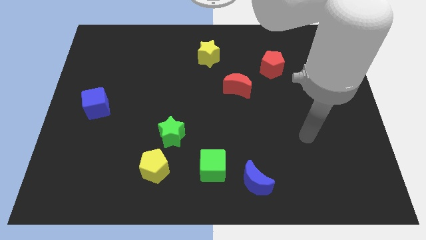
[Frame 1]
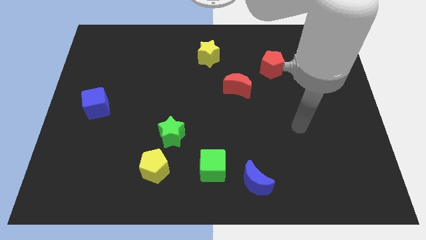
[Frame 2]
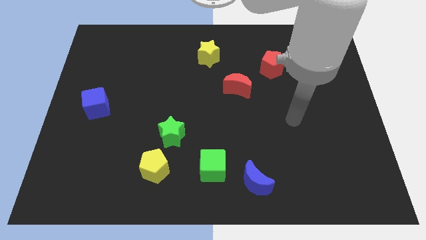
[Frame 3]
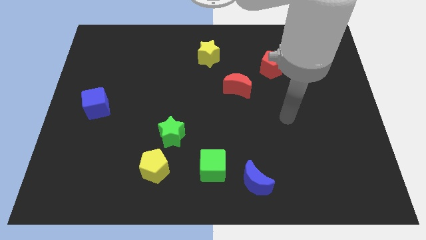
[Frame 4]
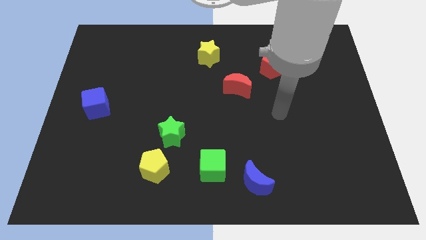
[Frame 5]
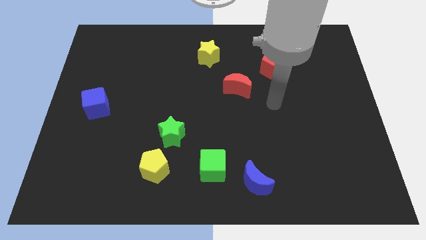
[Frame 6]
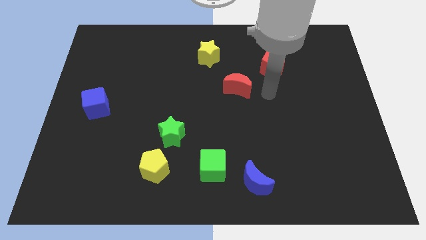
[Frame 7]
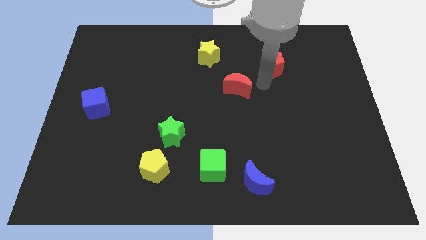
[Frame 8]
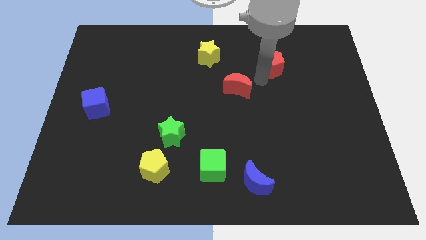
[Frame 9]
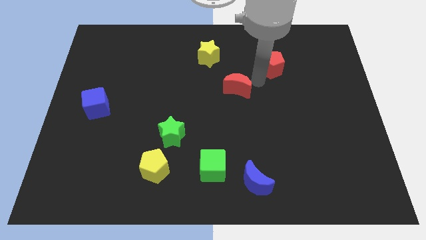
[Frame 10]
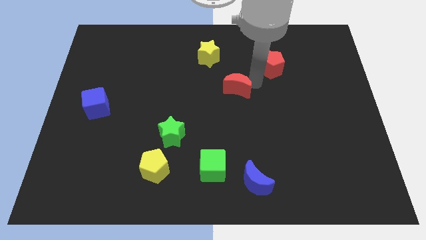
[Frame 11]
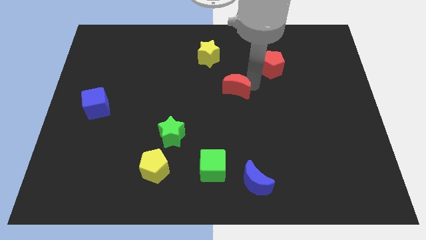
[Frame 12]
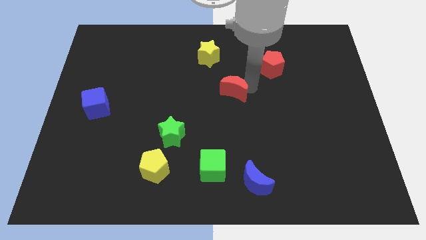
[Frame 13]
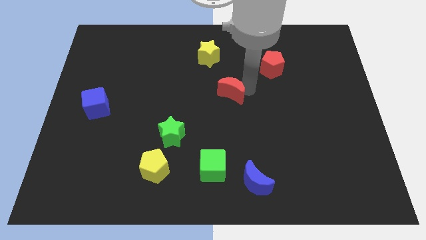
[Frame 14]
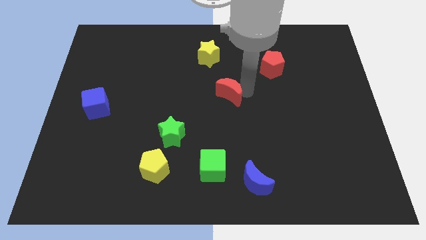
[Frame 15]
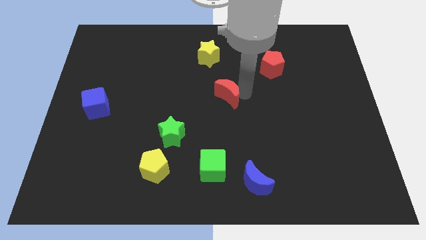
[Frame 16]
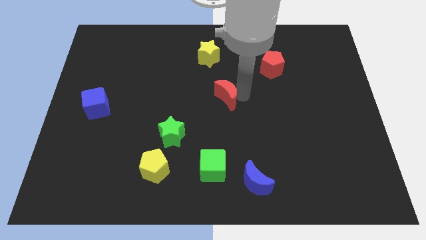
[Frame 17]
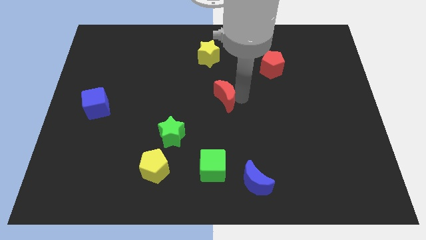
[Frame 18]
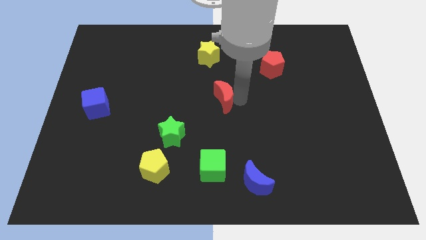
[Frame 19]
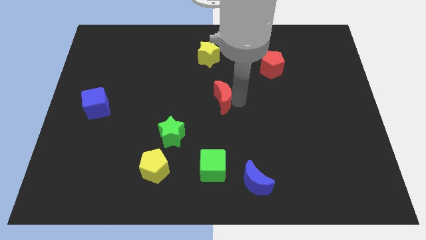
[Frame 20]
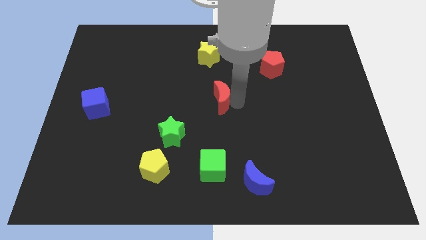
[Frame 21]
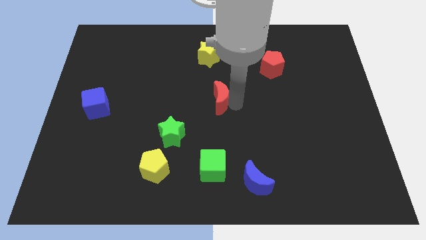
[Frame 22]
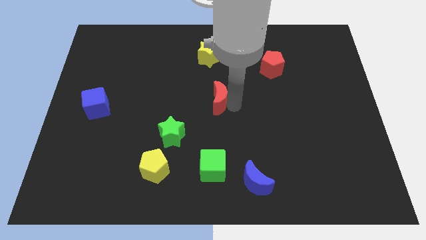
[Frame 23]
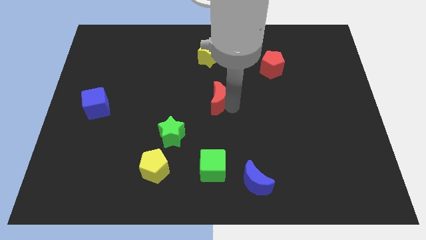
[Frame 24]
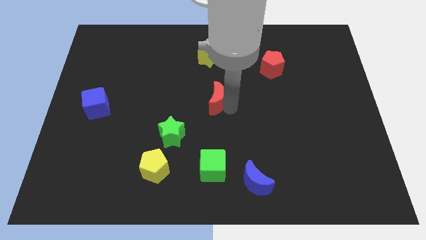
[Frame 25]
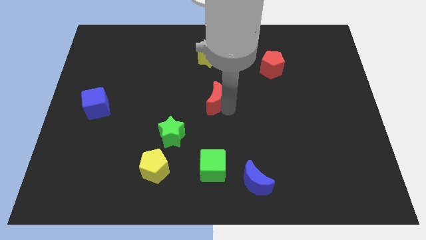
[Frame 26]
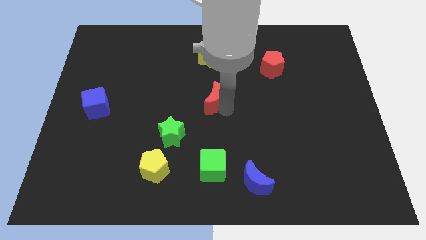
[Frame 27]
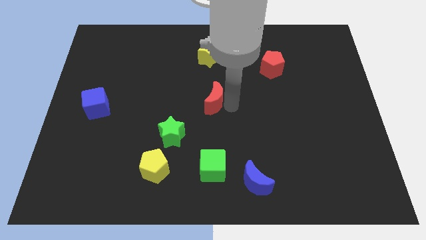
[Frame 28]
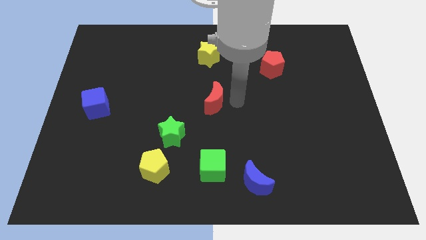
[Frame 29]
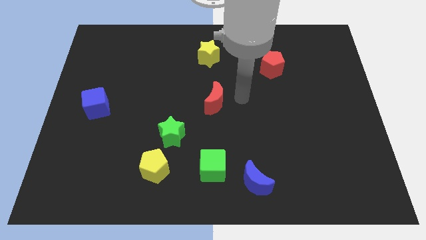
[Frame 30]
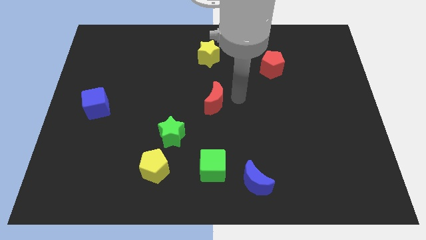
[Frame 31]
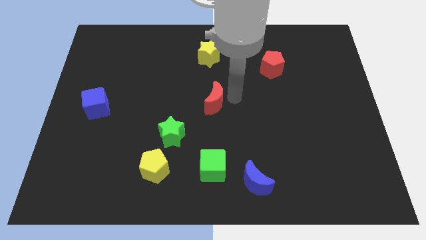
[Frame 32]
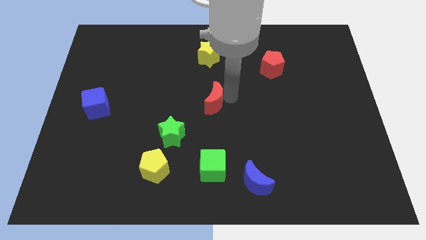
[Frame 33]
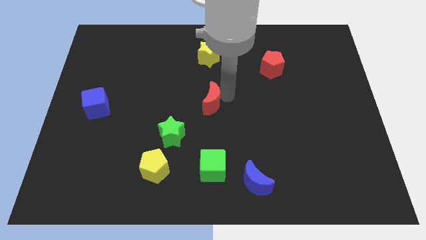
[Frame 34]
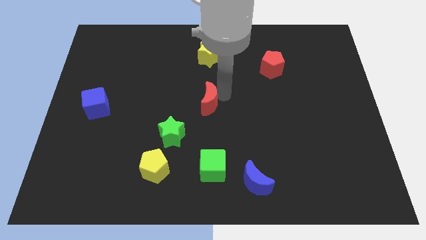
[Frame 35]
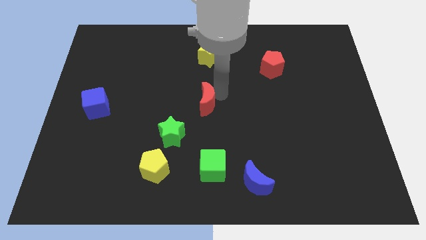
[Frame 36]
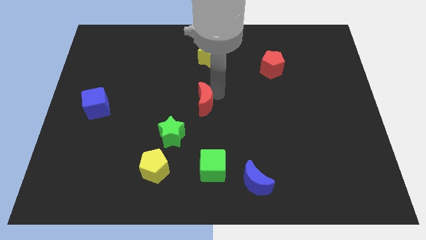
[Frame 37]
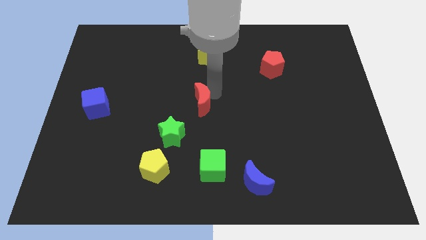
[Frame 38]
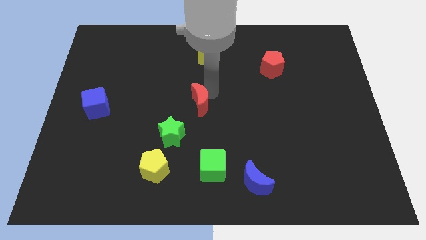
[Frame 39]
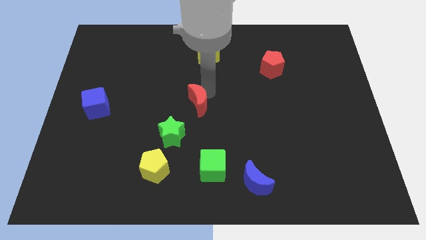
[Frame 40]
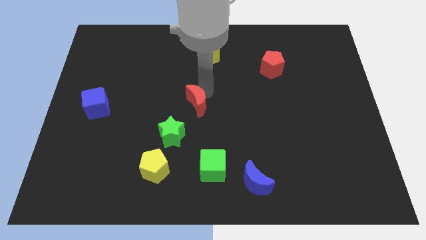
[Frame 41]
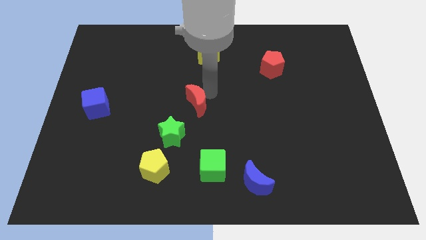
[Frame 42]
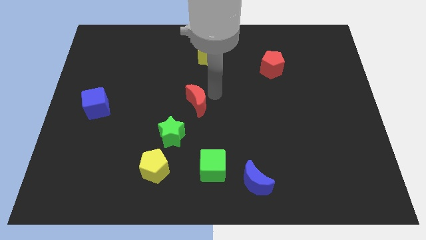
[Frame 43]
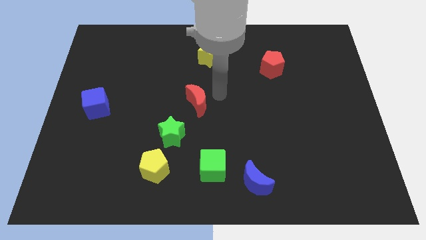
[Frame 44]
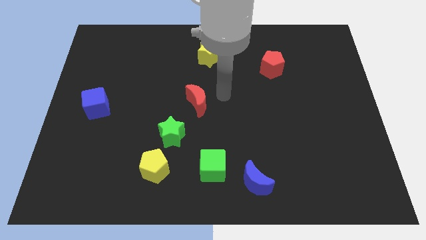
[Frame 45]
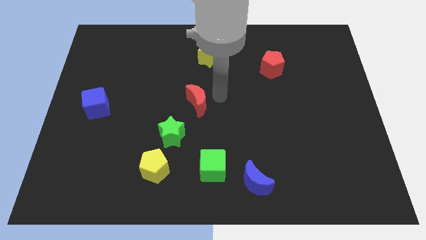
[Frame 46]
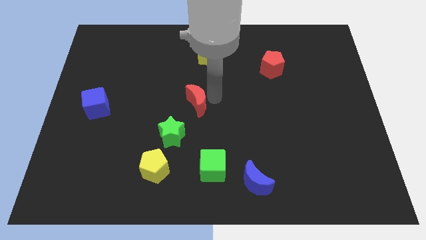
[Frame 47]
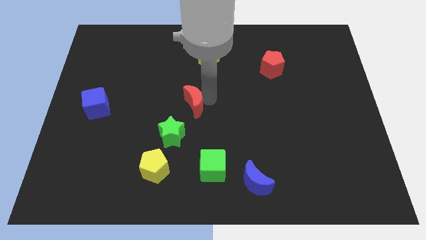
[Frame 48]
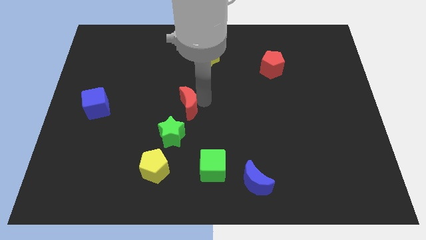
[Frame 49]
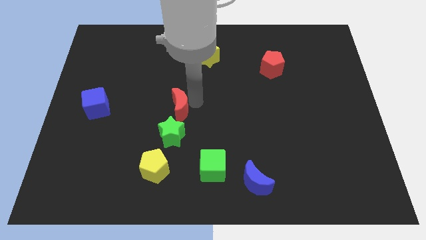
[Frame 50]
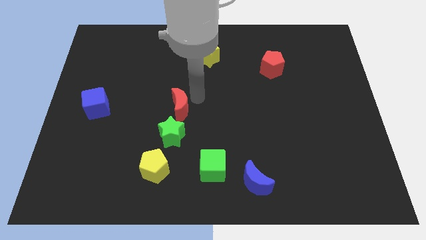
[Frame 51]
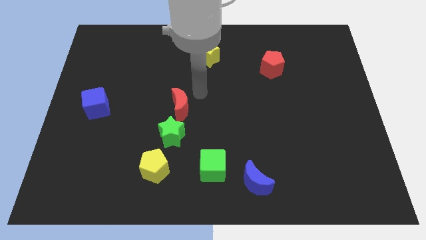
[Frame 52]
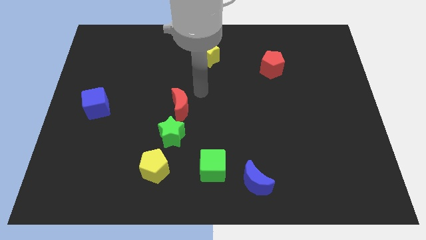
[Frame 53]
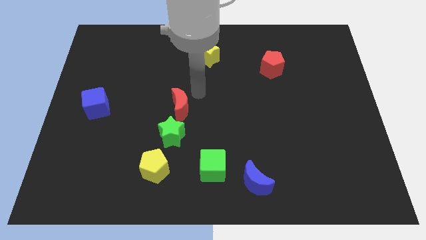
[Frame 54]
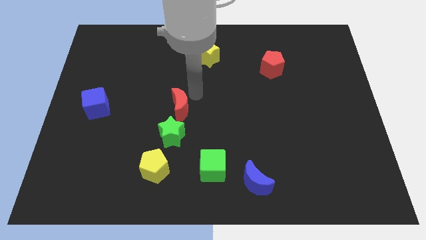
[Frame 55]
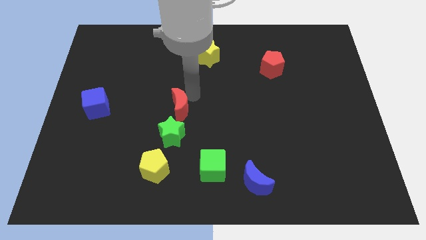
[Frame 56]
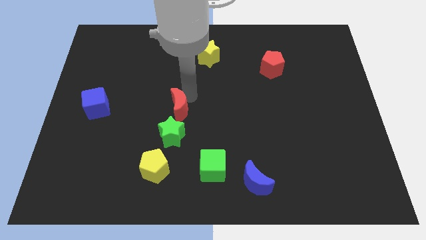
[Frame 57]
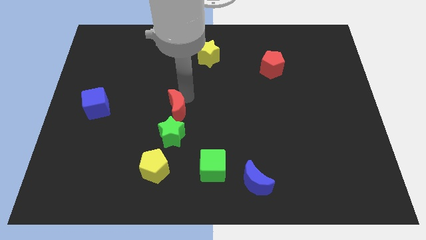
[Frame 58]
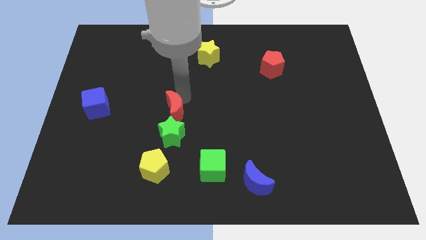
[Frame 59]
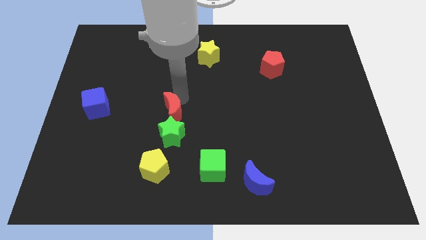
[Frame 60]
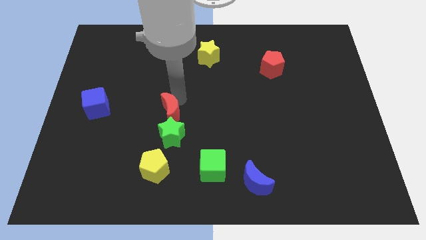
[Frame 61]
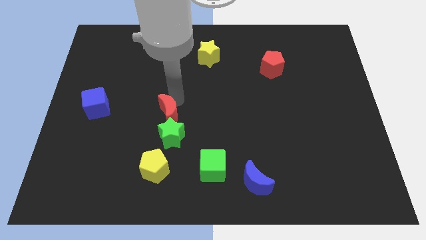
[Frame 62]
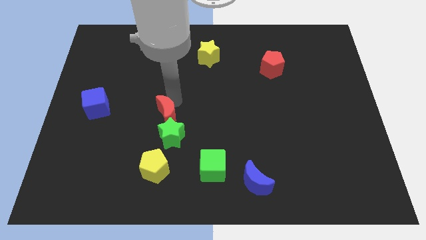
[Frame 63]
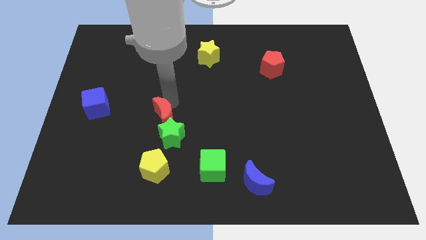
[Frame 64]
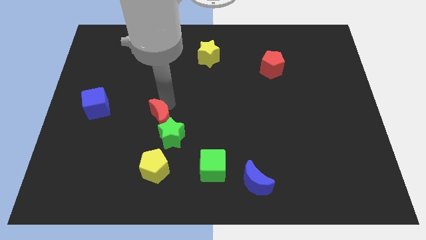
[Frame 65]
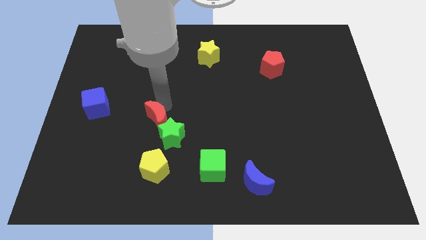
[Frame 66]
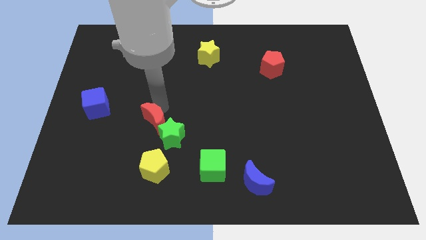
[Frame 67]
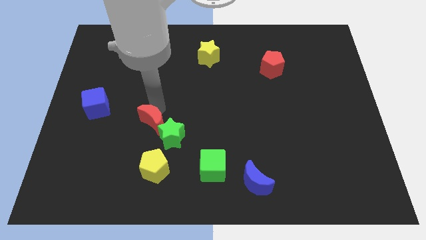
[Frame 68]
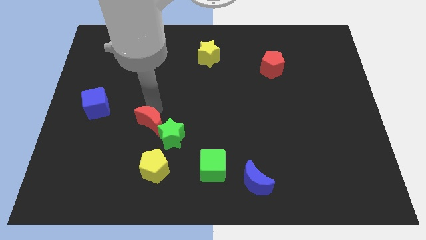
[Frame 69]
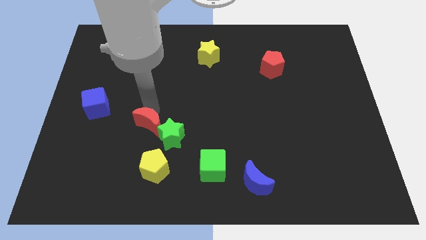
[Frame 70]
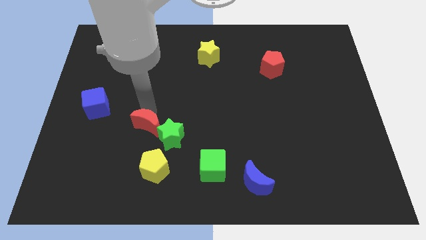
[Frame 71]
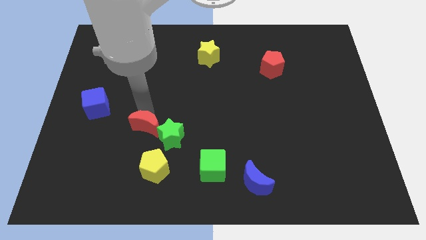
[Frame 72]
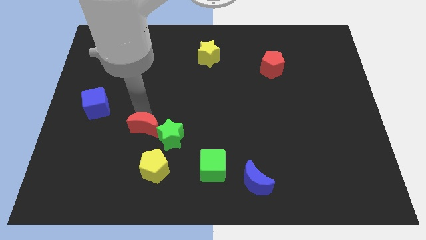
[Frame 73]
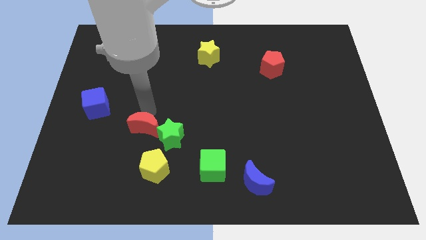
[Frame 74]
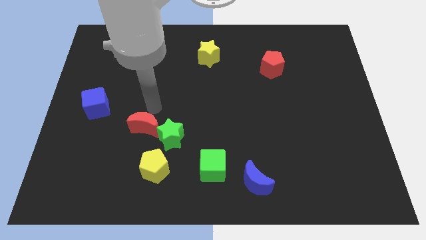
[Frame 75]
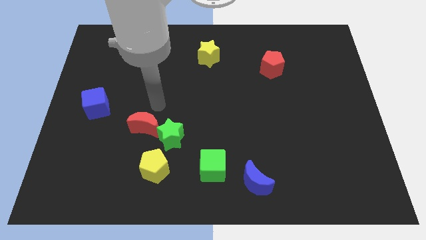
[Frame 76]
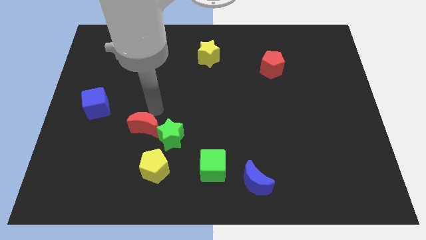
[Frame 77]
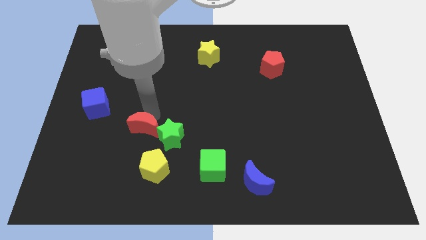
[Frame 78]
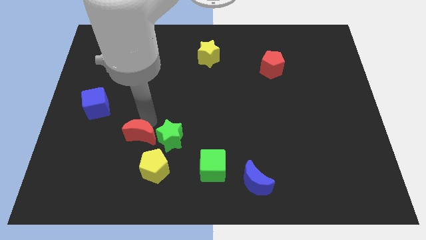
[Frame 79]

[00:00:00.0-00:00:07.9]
put the red moon diagonally up and to the left of the yellow pentagon
